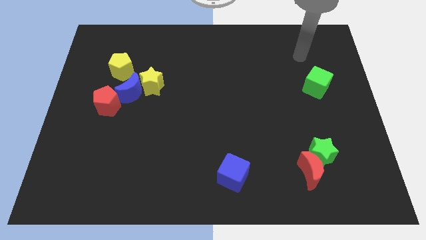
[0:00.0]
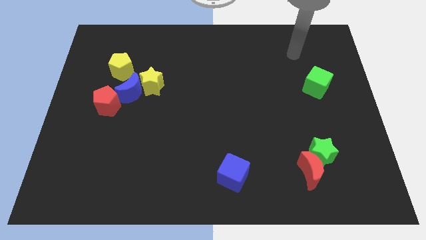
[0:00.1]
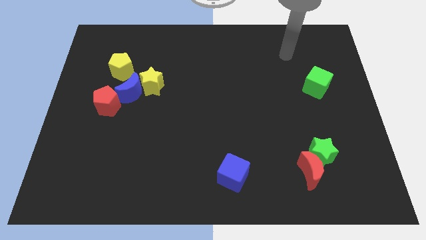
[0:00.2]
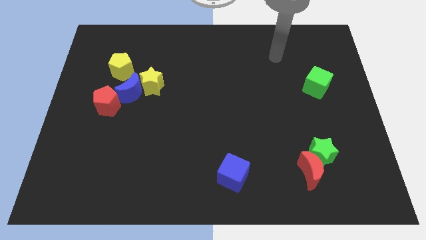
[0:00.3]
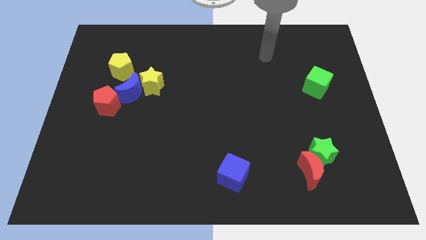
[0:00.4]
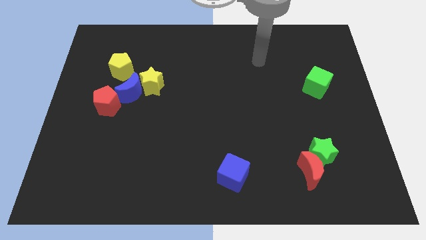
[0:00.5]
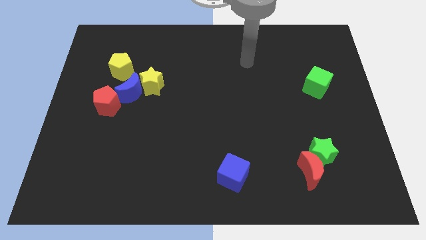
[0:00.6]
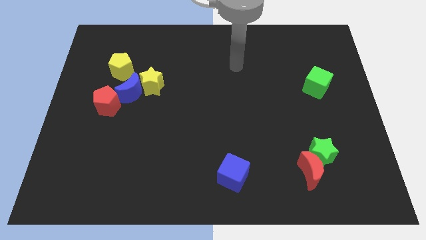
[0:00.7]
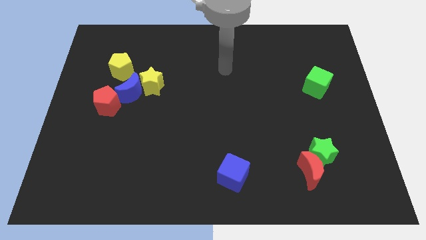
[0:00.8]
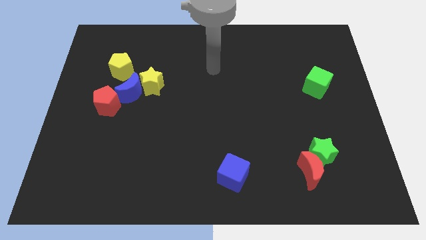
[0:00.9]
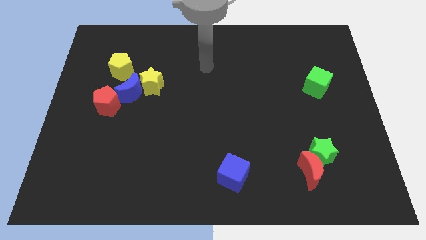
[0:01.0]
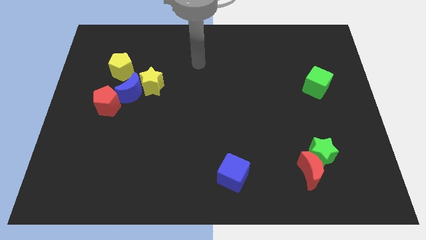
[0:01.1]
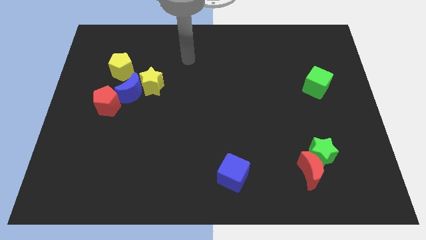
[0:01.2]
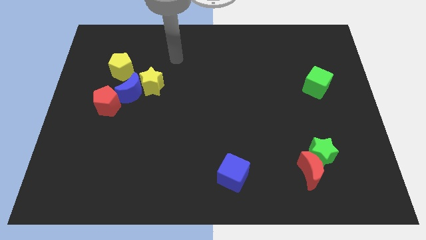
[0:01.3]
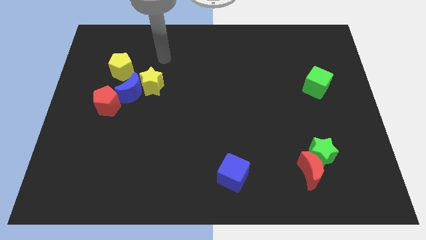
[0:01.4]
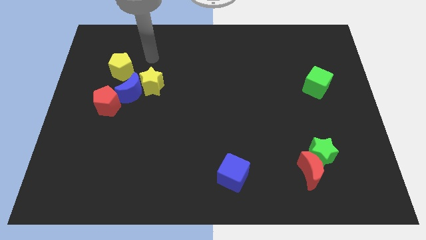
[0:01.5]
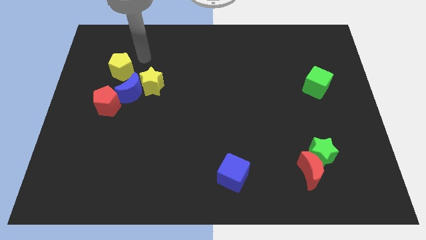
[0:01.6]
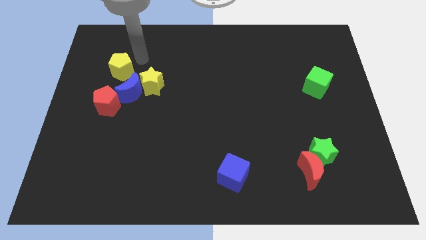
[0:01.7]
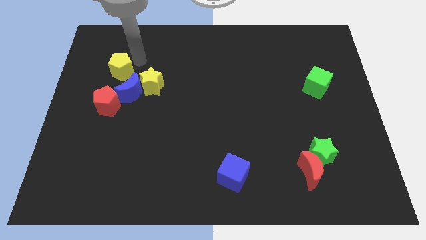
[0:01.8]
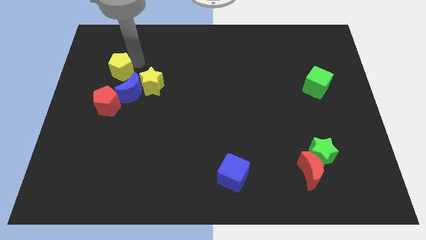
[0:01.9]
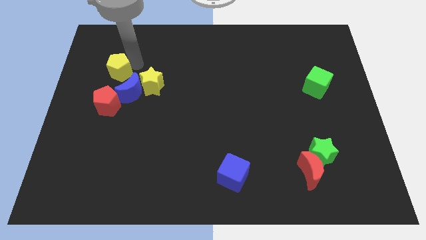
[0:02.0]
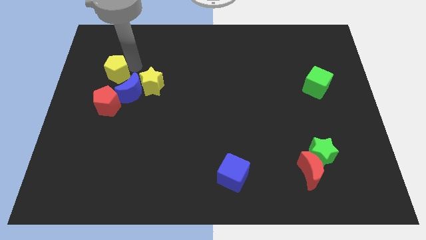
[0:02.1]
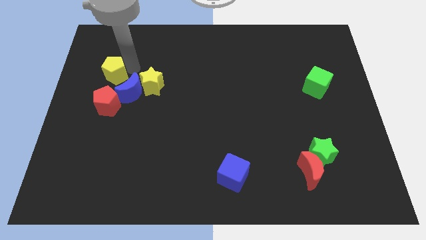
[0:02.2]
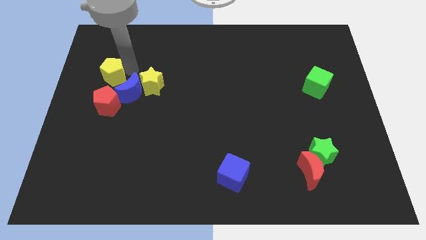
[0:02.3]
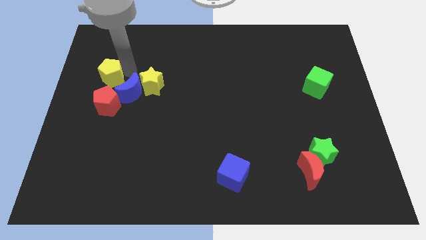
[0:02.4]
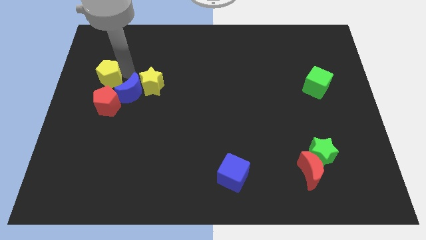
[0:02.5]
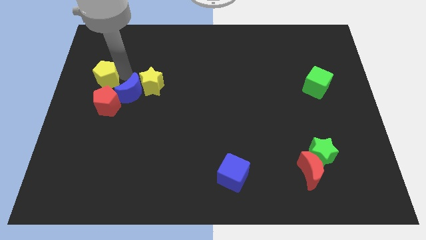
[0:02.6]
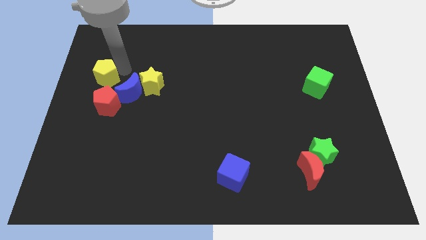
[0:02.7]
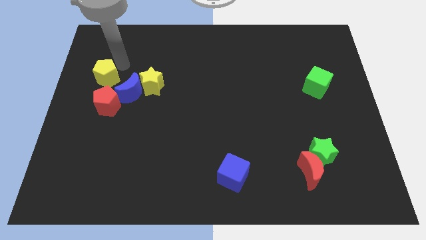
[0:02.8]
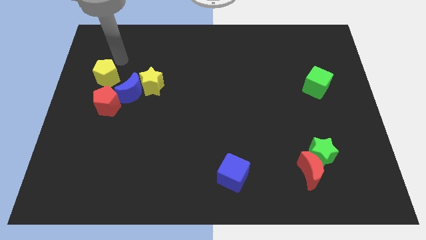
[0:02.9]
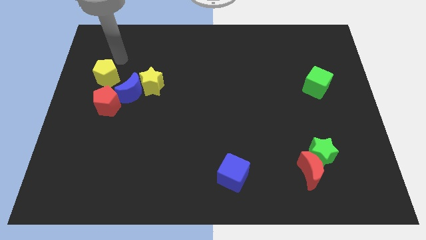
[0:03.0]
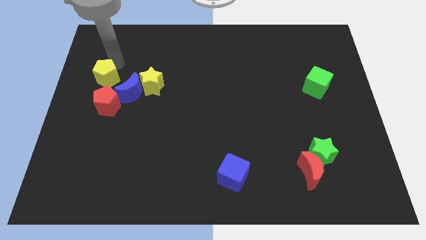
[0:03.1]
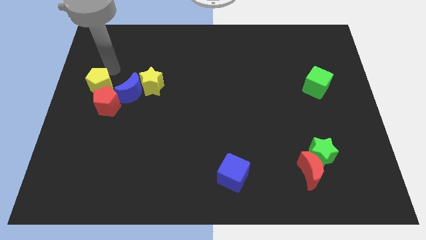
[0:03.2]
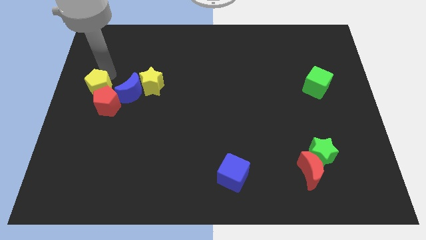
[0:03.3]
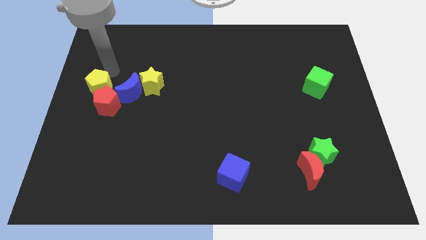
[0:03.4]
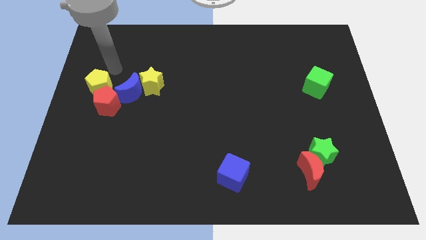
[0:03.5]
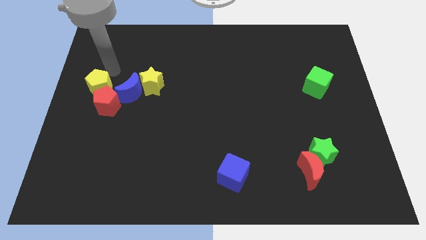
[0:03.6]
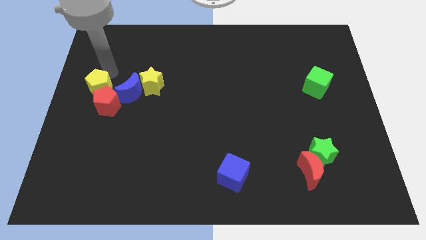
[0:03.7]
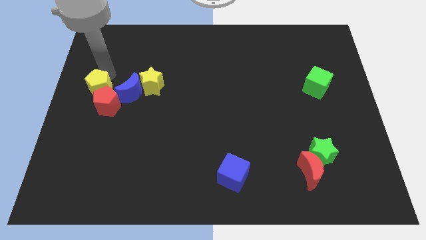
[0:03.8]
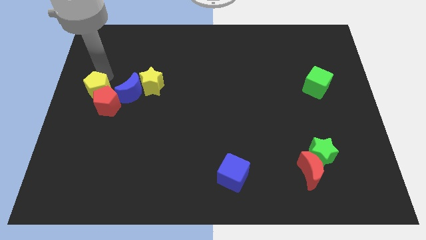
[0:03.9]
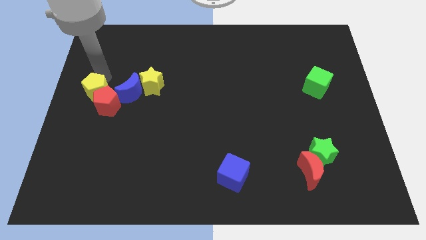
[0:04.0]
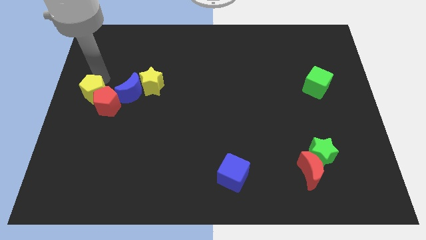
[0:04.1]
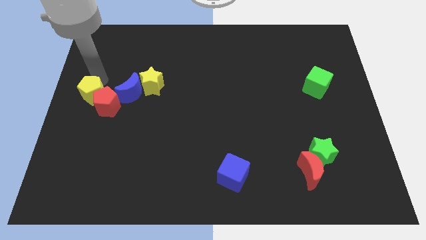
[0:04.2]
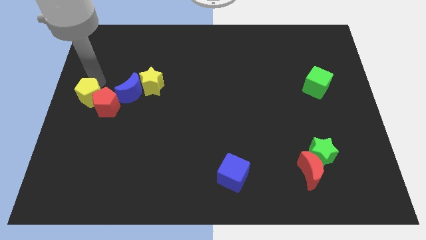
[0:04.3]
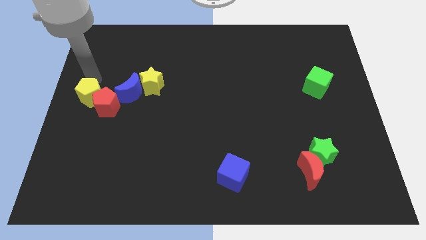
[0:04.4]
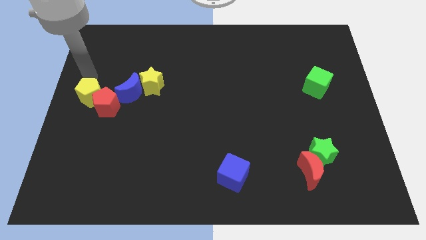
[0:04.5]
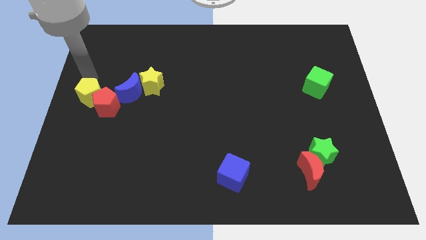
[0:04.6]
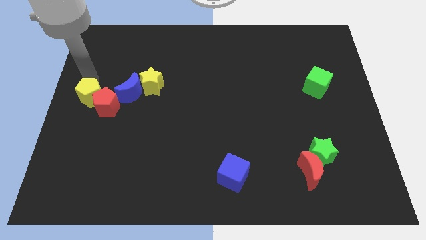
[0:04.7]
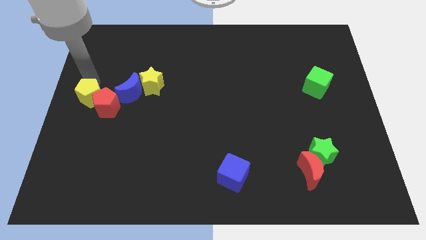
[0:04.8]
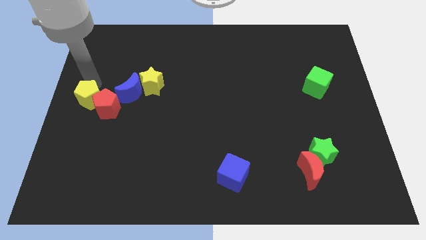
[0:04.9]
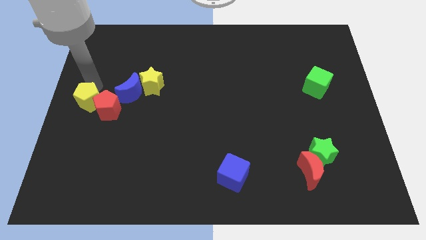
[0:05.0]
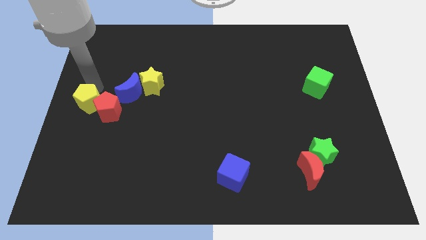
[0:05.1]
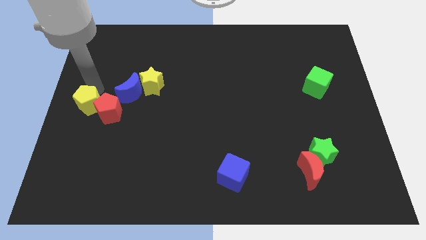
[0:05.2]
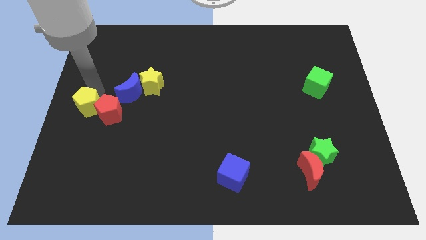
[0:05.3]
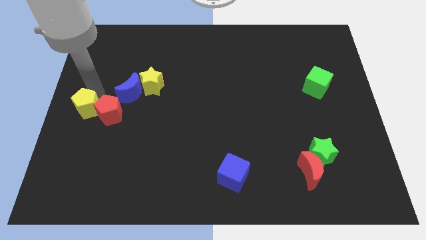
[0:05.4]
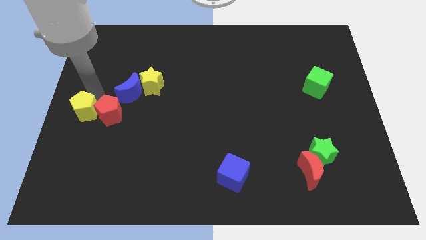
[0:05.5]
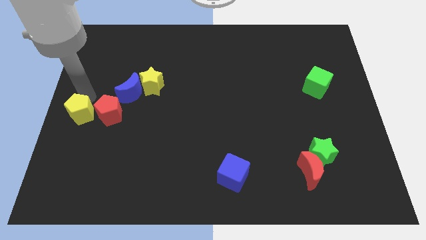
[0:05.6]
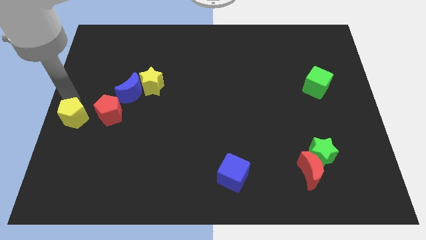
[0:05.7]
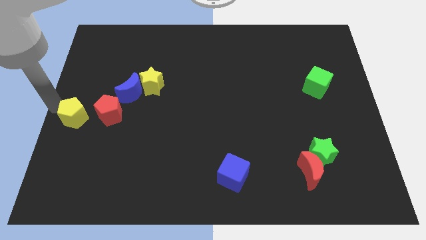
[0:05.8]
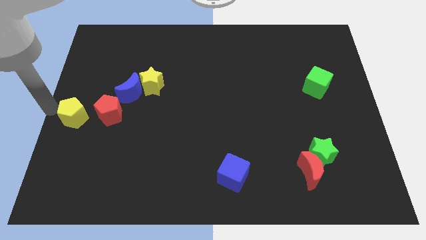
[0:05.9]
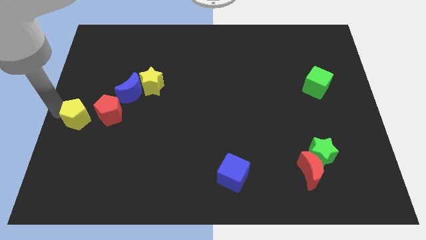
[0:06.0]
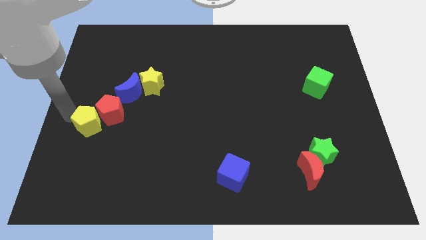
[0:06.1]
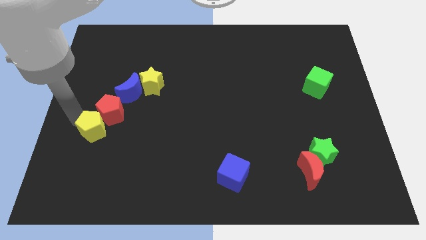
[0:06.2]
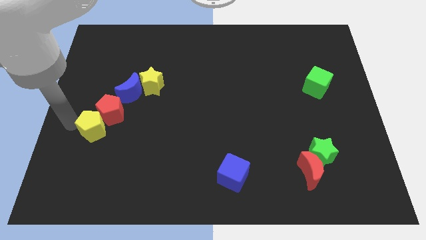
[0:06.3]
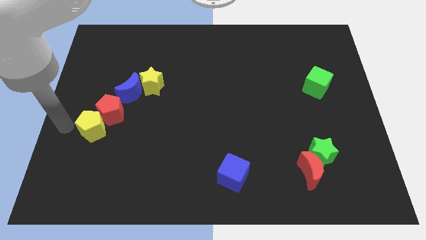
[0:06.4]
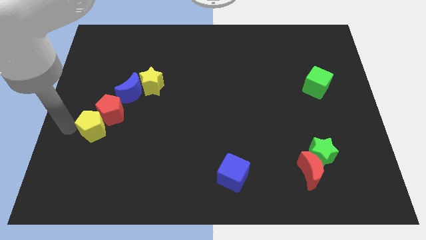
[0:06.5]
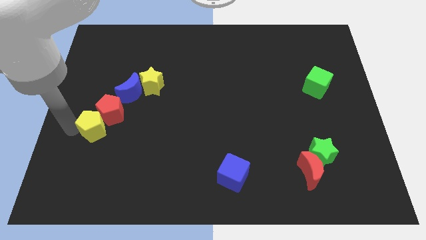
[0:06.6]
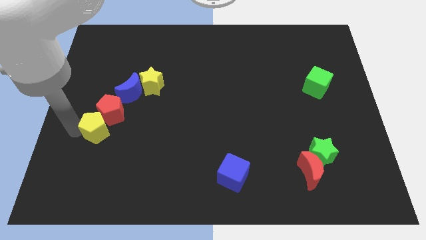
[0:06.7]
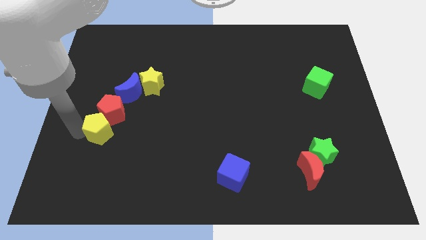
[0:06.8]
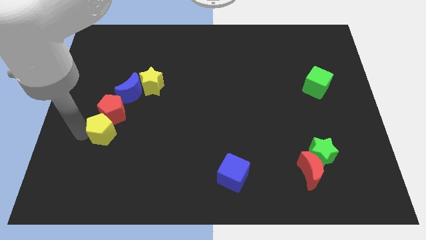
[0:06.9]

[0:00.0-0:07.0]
put the yellow pentagon to the bottom right of the red pentagon
